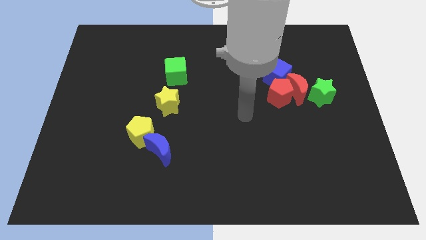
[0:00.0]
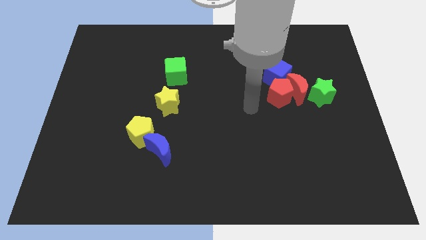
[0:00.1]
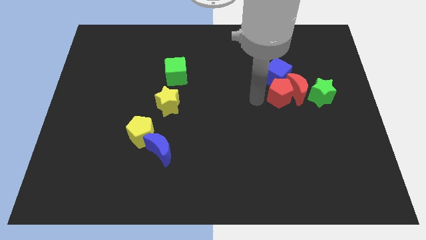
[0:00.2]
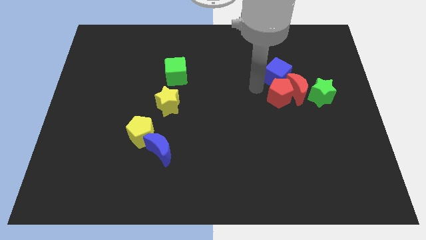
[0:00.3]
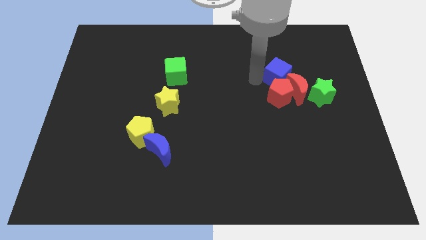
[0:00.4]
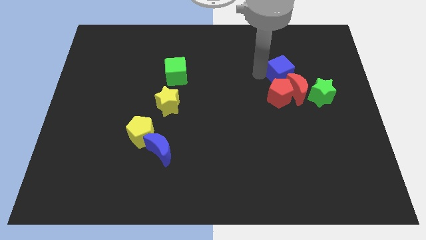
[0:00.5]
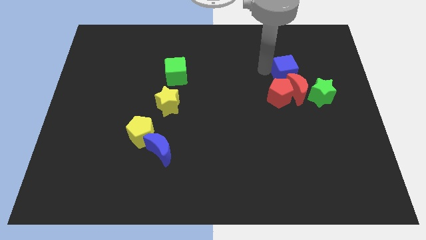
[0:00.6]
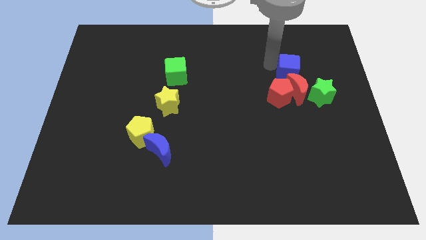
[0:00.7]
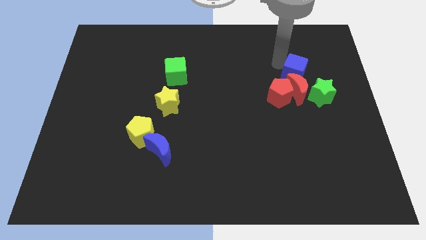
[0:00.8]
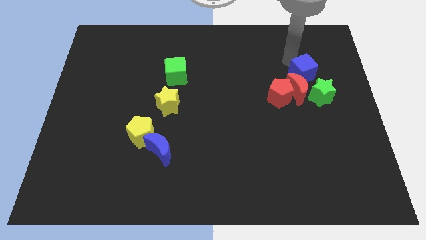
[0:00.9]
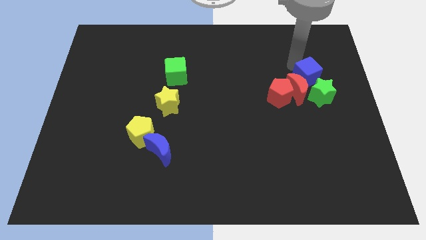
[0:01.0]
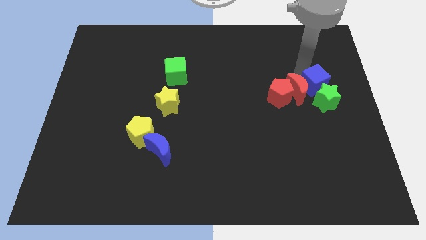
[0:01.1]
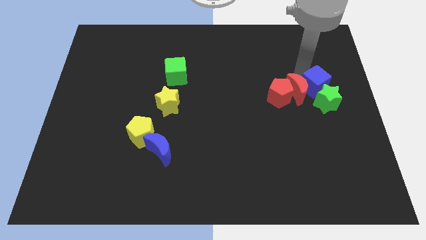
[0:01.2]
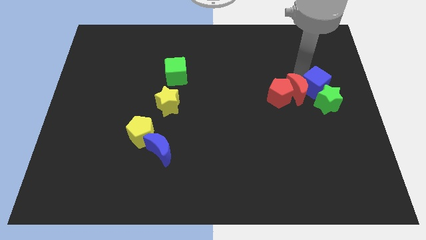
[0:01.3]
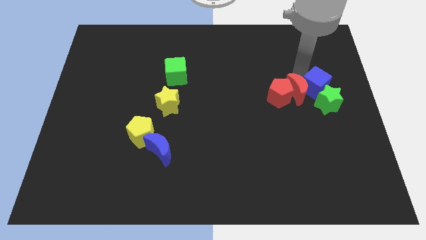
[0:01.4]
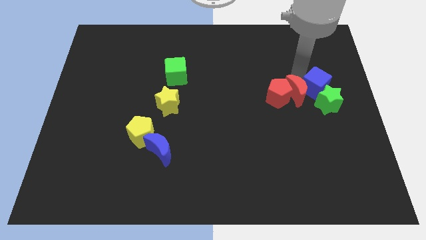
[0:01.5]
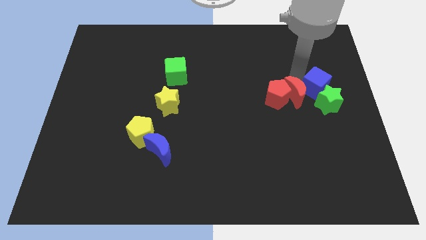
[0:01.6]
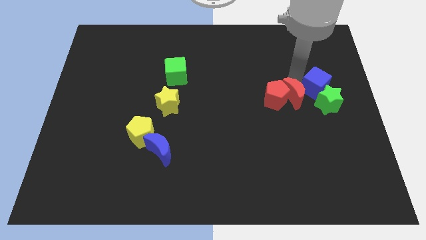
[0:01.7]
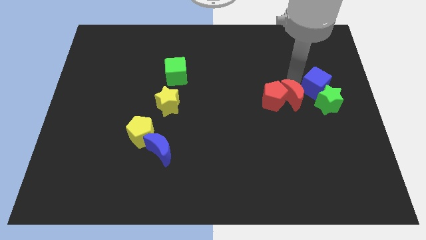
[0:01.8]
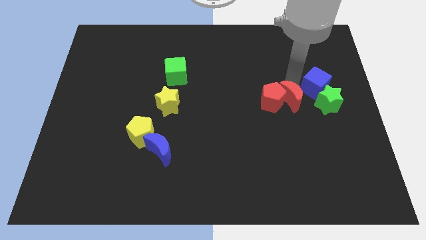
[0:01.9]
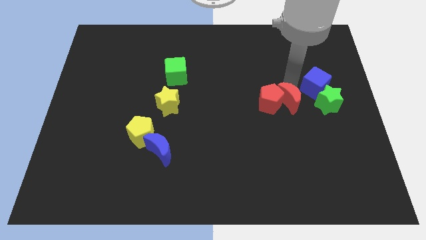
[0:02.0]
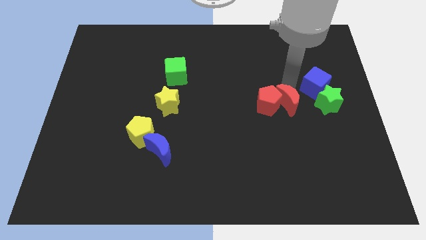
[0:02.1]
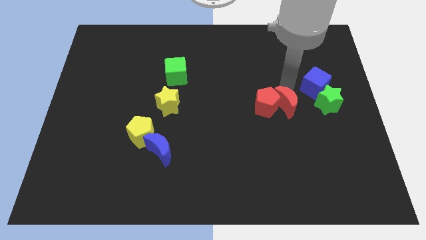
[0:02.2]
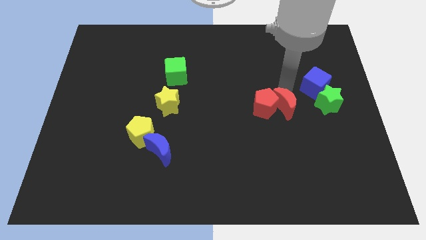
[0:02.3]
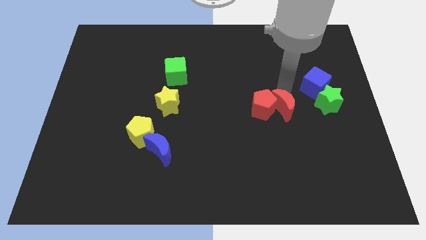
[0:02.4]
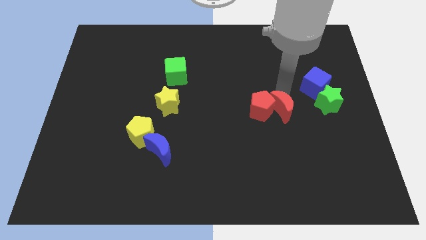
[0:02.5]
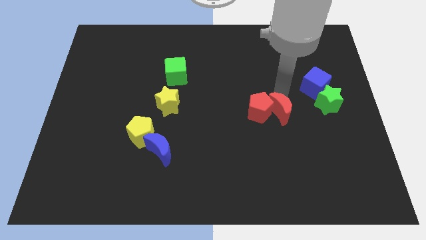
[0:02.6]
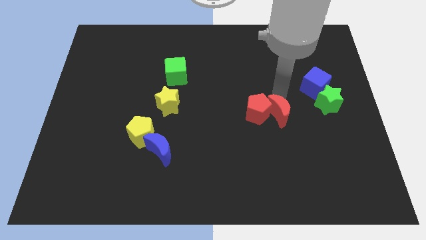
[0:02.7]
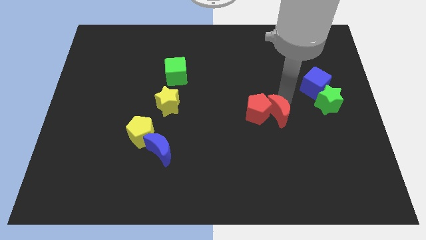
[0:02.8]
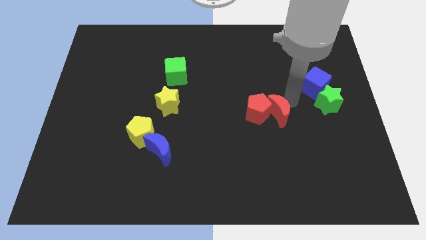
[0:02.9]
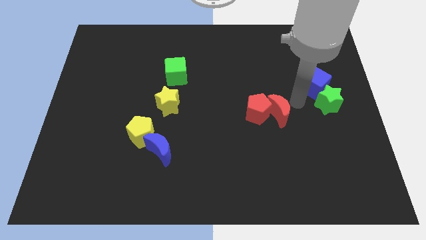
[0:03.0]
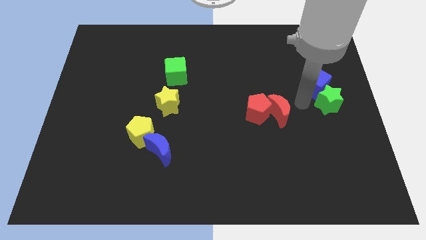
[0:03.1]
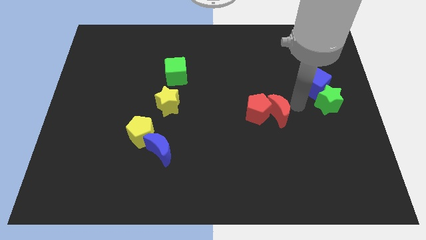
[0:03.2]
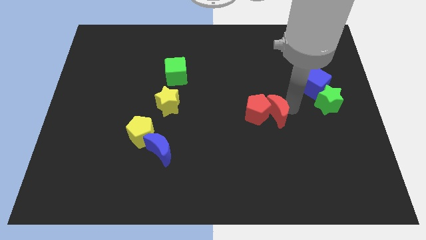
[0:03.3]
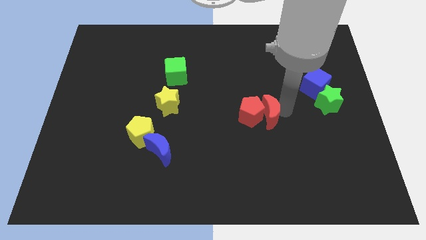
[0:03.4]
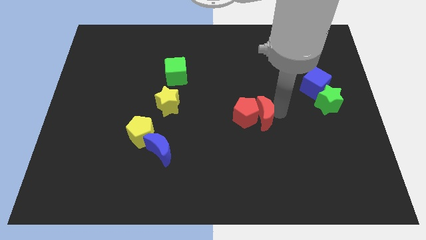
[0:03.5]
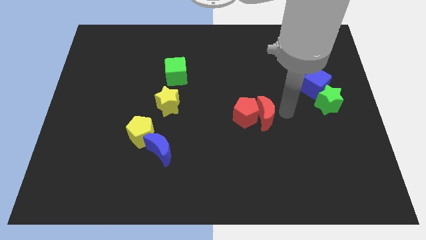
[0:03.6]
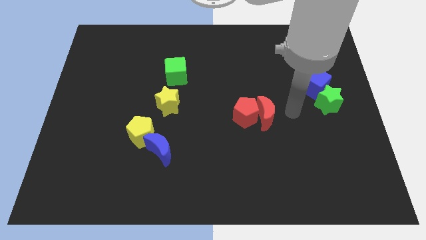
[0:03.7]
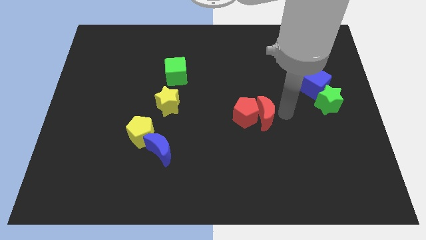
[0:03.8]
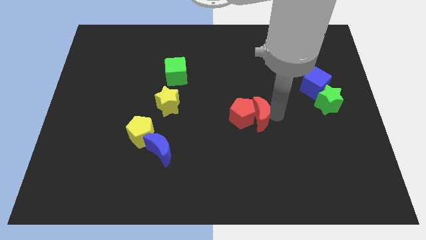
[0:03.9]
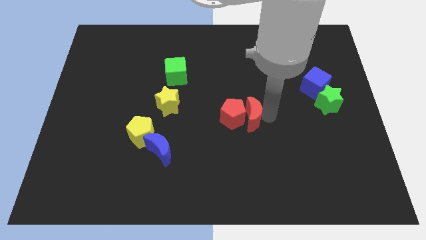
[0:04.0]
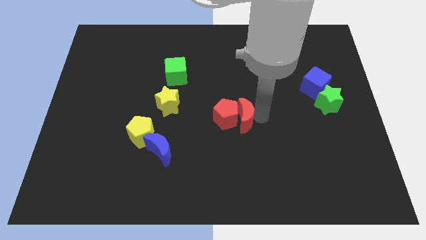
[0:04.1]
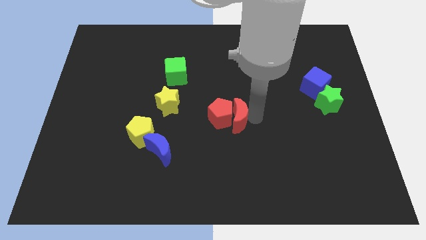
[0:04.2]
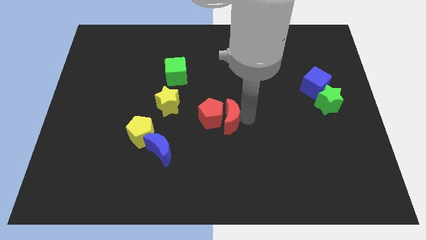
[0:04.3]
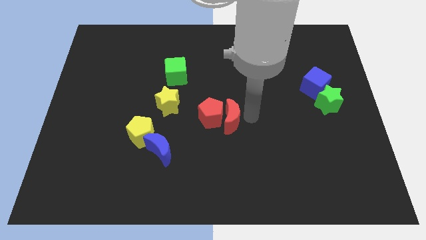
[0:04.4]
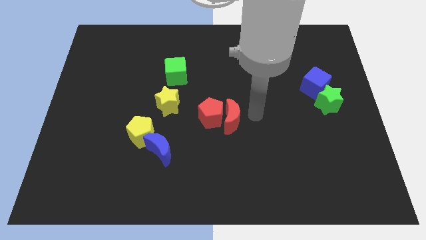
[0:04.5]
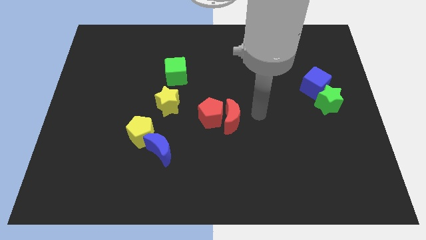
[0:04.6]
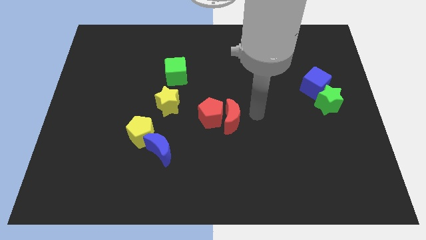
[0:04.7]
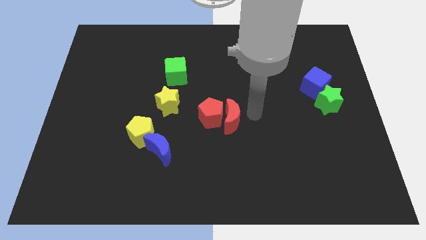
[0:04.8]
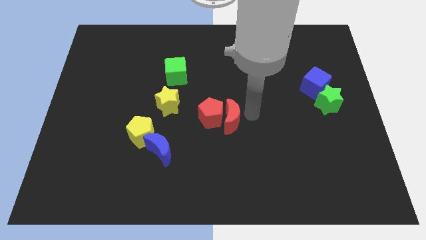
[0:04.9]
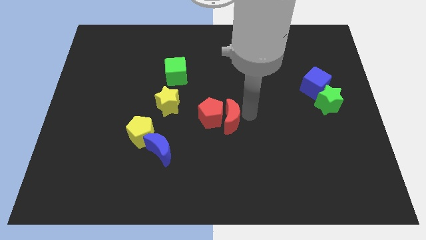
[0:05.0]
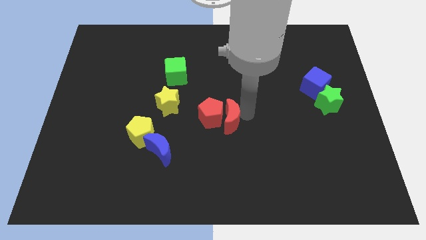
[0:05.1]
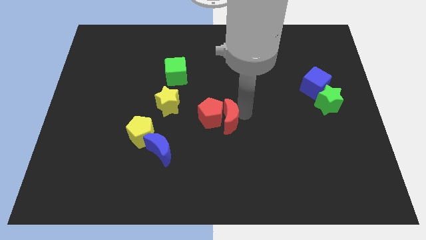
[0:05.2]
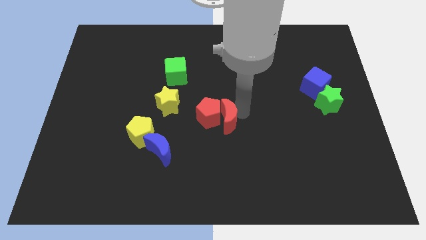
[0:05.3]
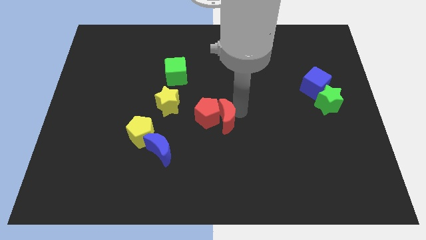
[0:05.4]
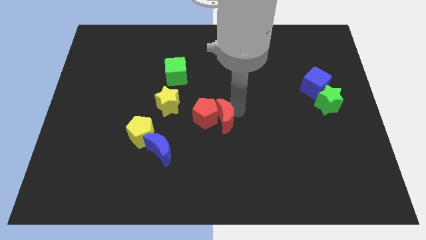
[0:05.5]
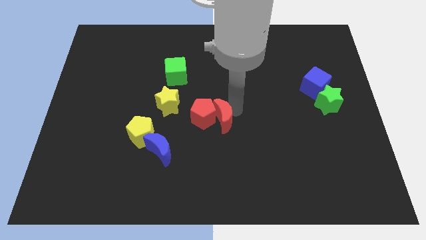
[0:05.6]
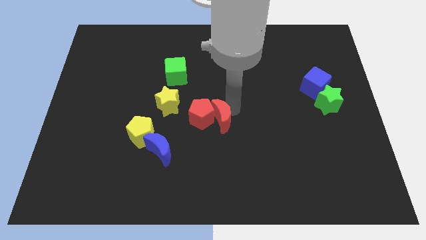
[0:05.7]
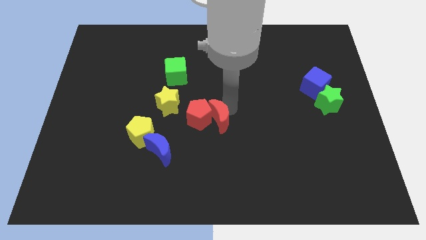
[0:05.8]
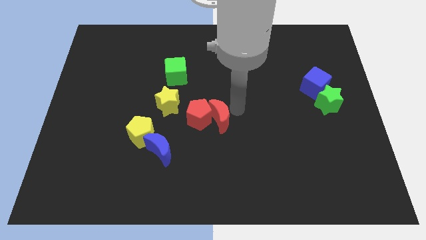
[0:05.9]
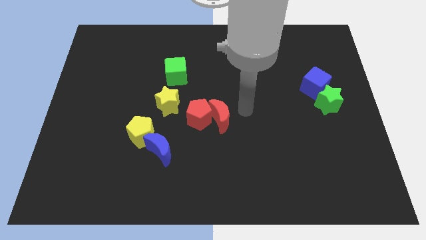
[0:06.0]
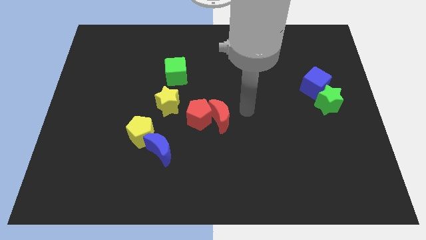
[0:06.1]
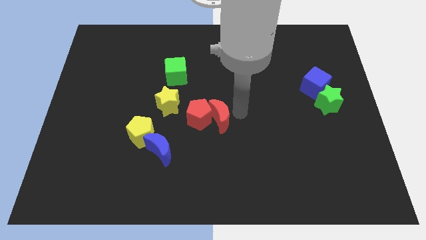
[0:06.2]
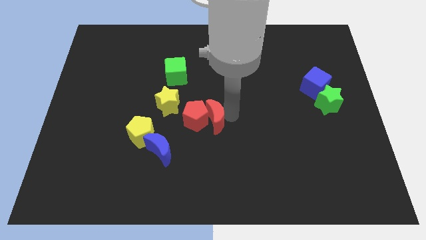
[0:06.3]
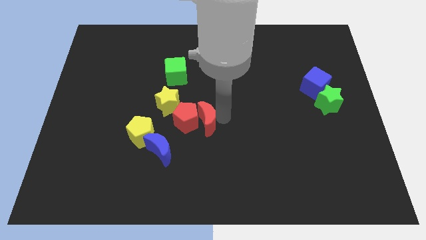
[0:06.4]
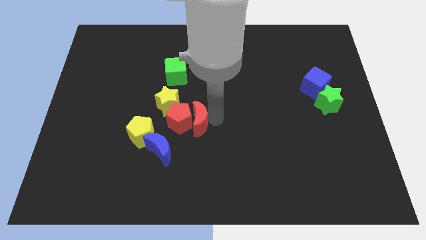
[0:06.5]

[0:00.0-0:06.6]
push the red moon left

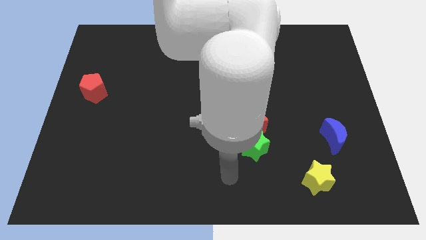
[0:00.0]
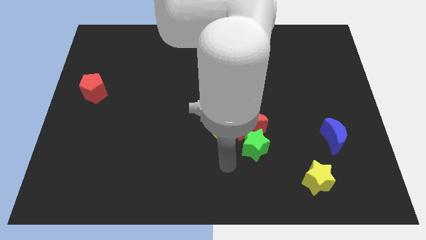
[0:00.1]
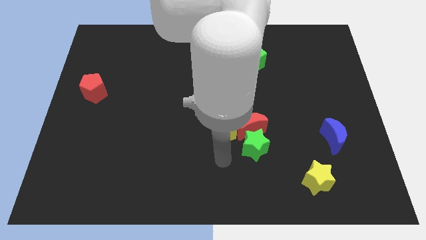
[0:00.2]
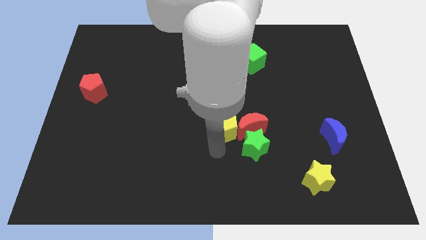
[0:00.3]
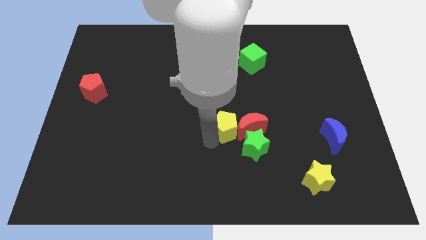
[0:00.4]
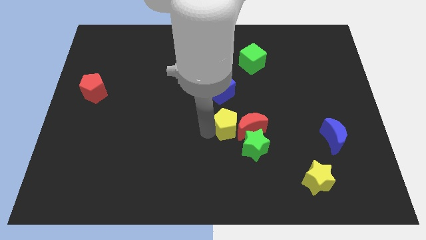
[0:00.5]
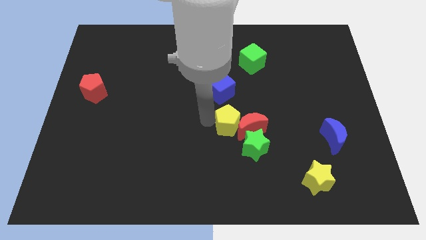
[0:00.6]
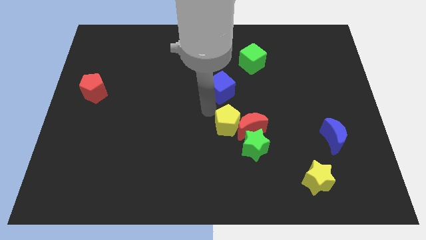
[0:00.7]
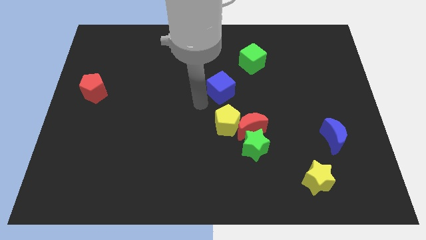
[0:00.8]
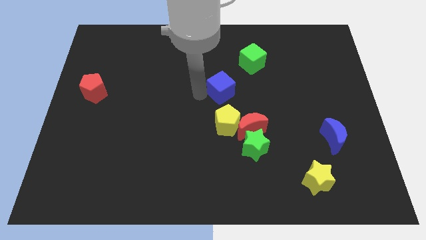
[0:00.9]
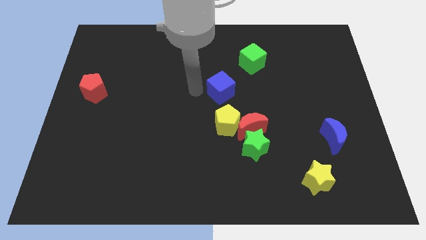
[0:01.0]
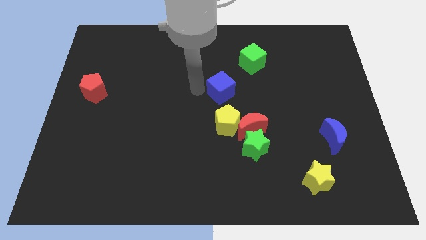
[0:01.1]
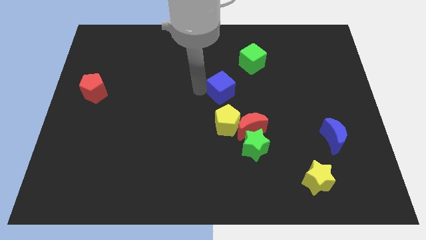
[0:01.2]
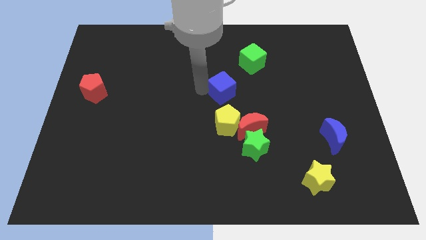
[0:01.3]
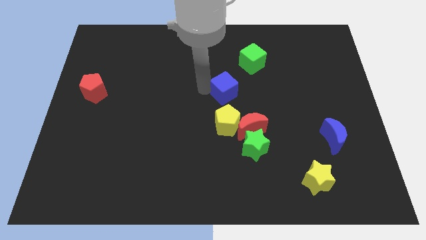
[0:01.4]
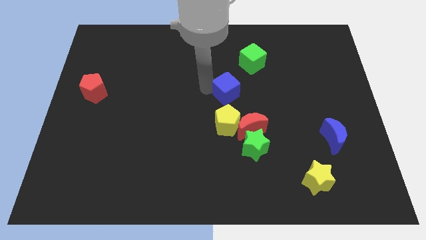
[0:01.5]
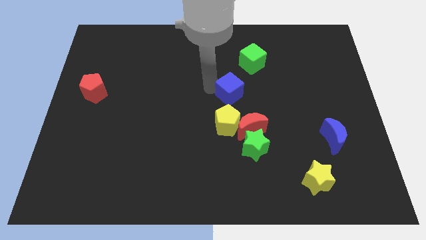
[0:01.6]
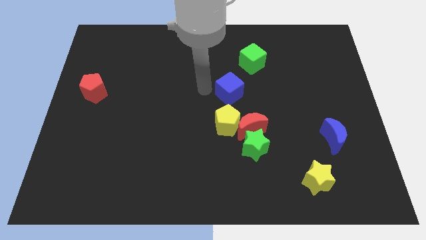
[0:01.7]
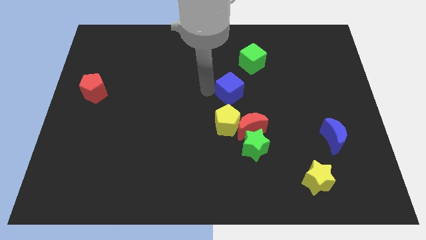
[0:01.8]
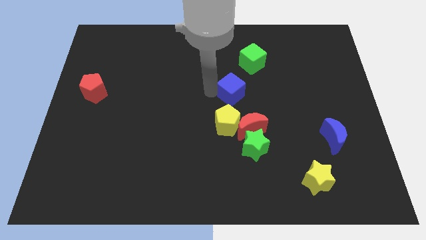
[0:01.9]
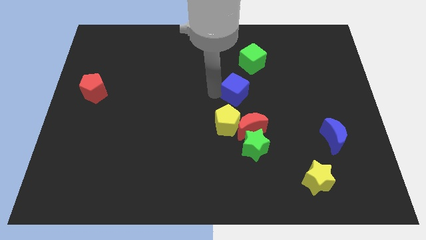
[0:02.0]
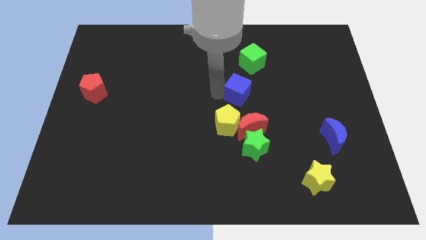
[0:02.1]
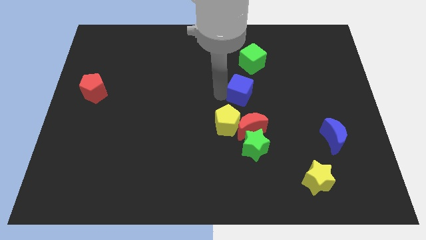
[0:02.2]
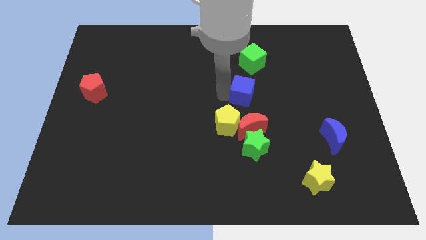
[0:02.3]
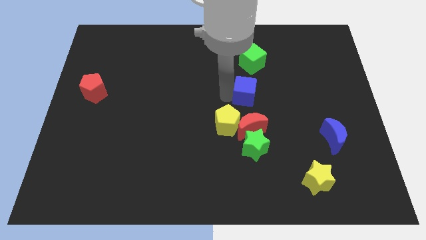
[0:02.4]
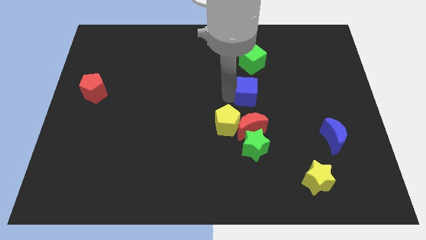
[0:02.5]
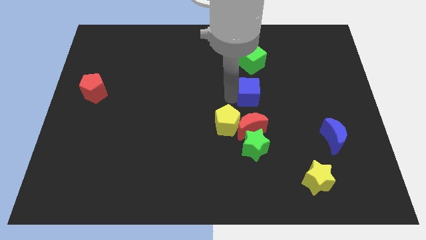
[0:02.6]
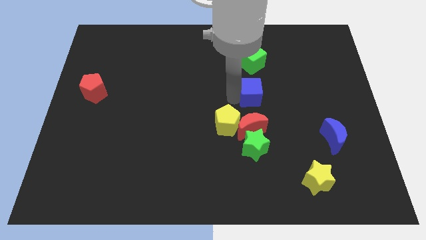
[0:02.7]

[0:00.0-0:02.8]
move the blue cube right a little
